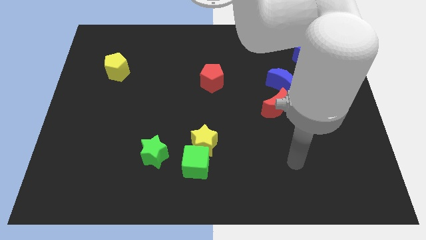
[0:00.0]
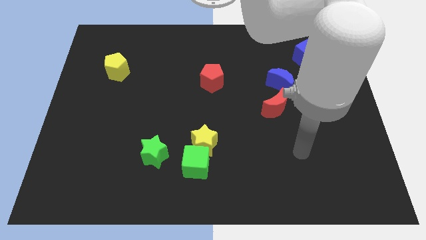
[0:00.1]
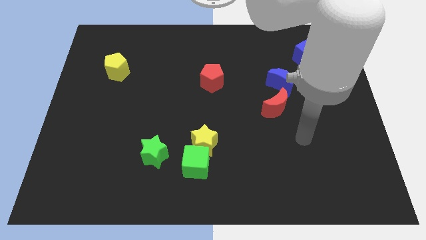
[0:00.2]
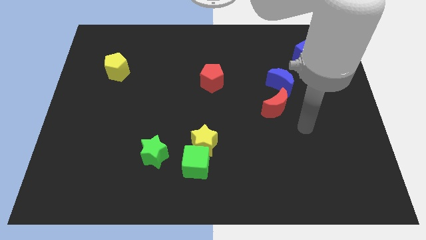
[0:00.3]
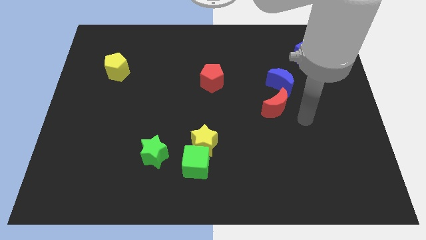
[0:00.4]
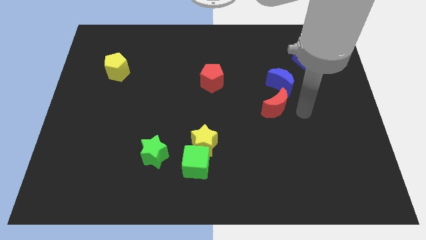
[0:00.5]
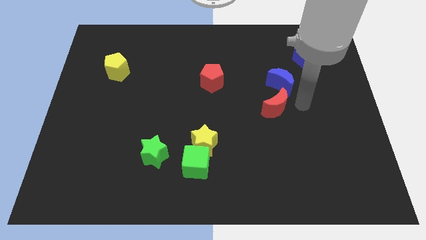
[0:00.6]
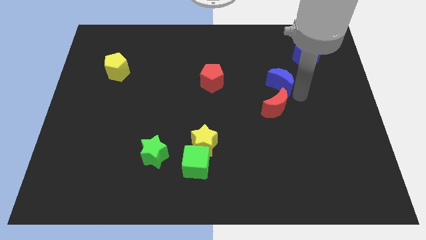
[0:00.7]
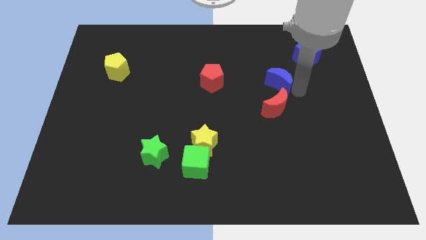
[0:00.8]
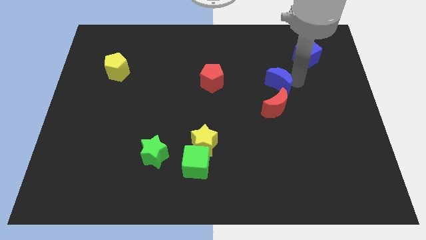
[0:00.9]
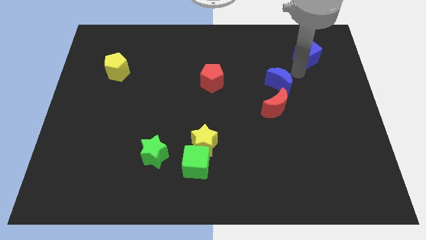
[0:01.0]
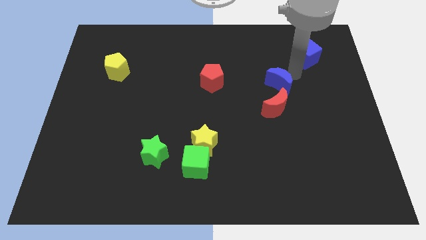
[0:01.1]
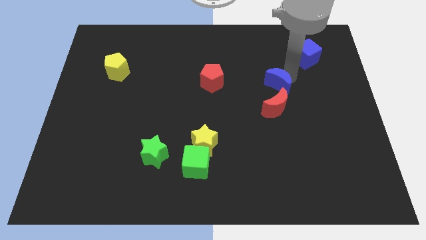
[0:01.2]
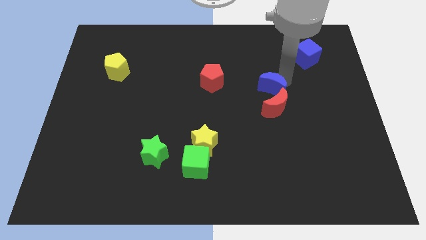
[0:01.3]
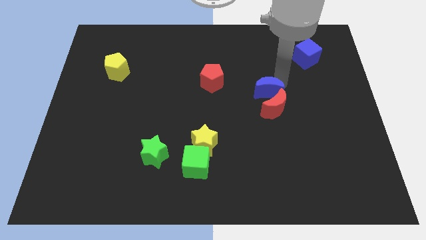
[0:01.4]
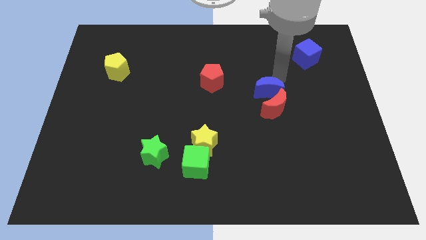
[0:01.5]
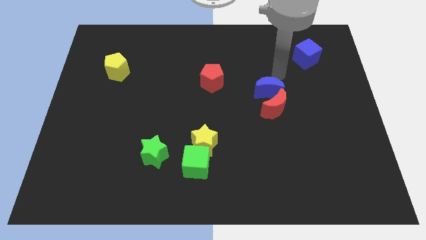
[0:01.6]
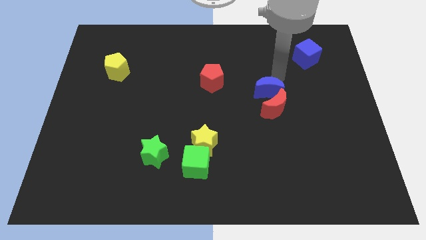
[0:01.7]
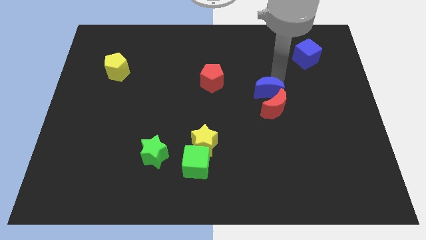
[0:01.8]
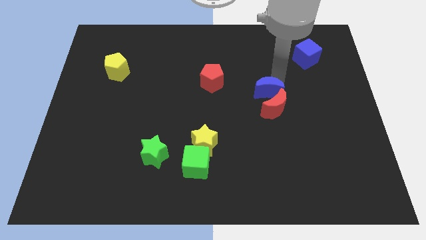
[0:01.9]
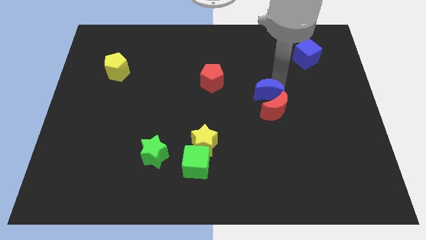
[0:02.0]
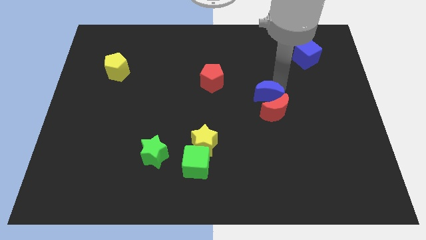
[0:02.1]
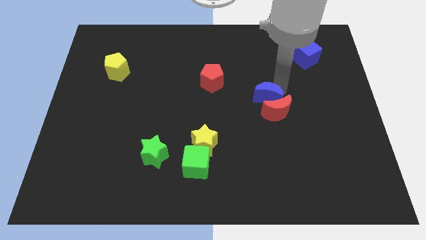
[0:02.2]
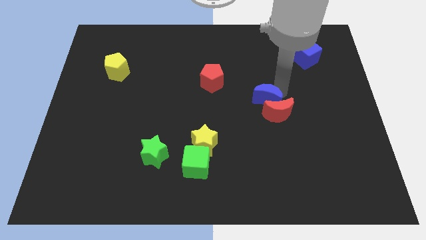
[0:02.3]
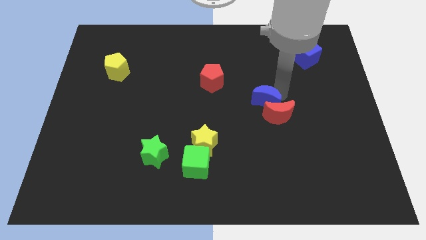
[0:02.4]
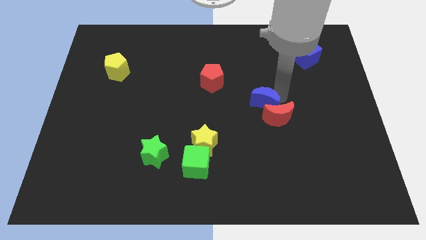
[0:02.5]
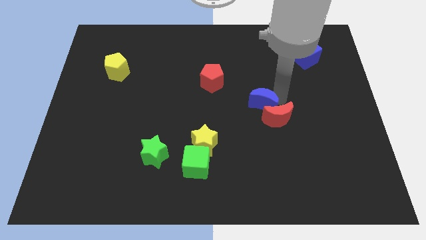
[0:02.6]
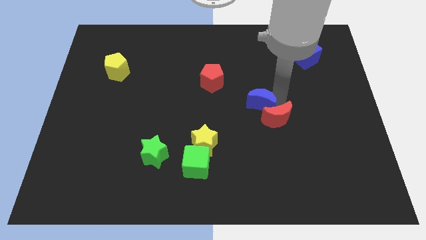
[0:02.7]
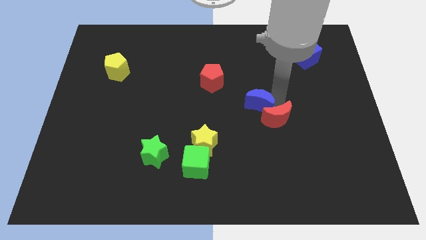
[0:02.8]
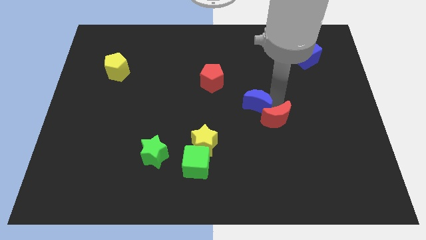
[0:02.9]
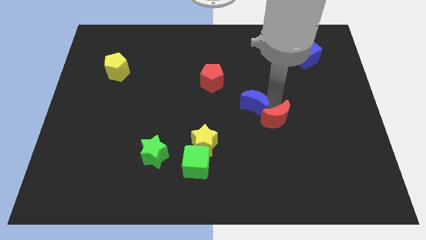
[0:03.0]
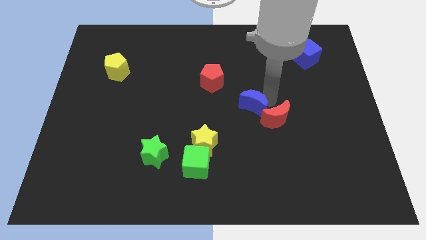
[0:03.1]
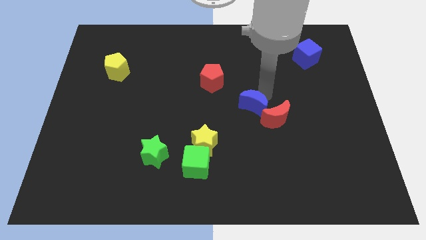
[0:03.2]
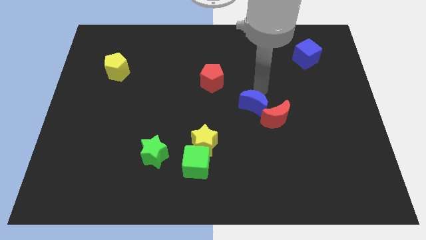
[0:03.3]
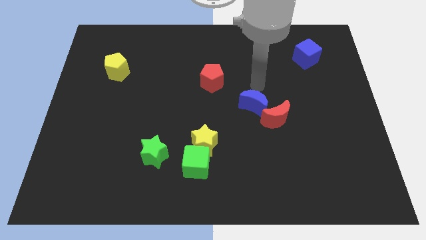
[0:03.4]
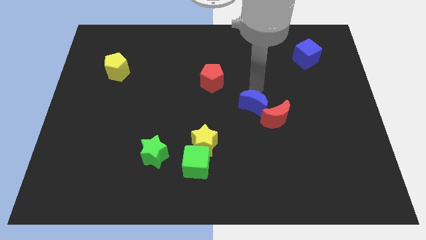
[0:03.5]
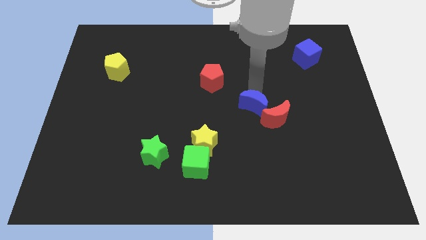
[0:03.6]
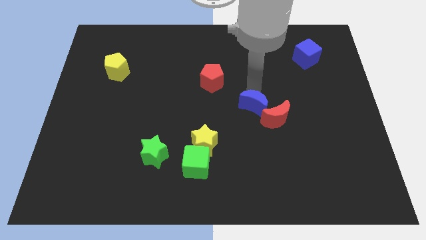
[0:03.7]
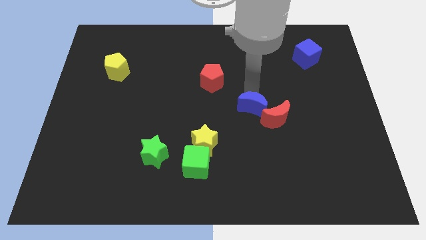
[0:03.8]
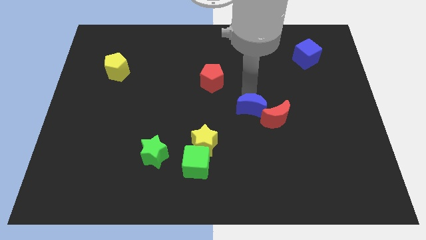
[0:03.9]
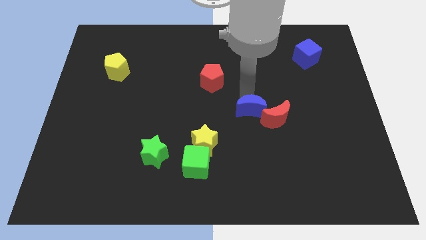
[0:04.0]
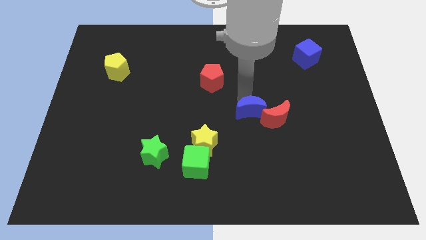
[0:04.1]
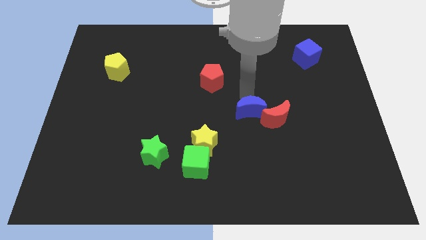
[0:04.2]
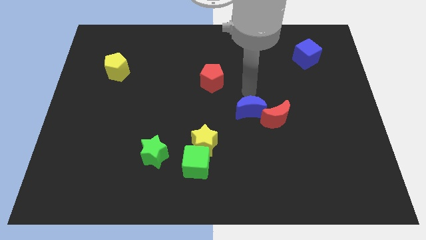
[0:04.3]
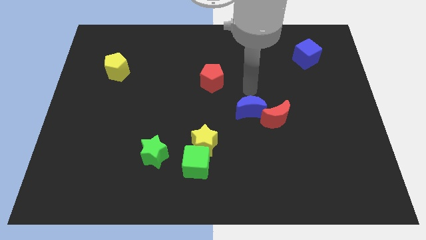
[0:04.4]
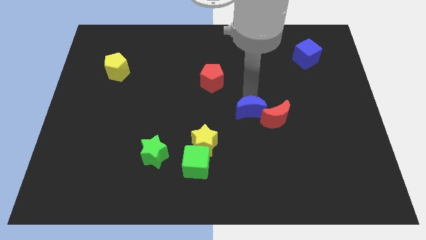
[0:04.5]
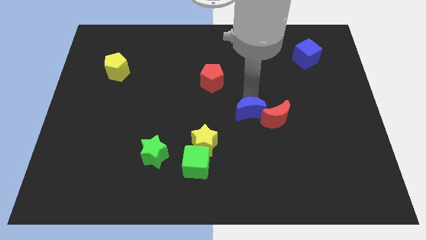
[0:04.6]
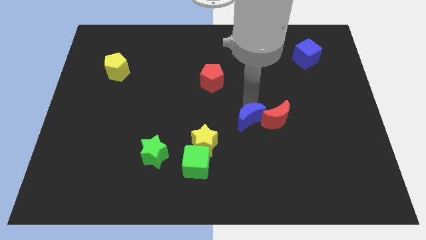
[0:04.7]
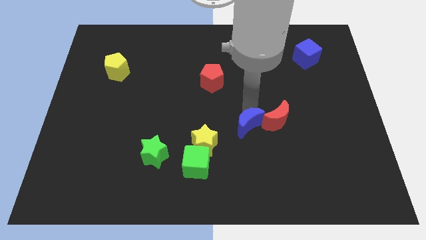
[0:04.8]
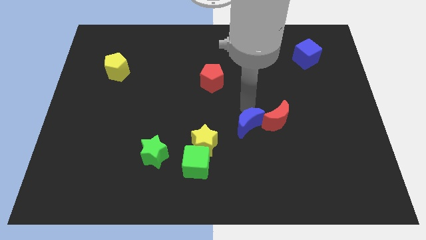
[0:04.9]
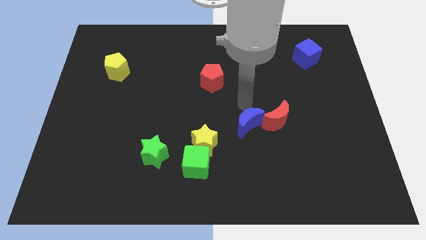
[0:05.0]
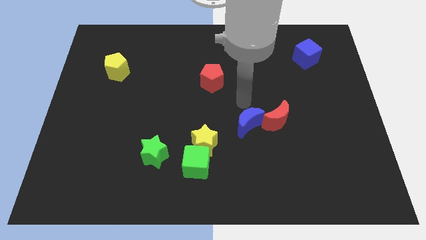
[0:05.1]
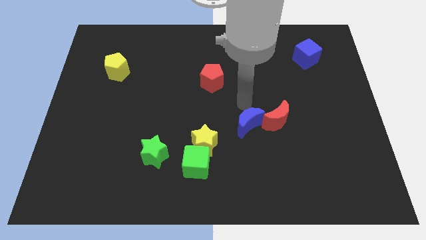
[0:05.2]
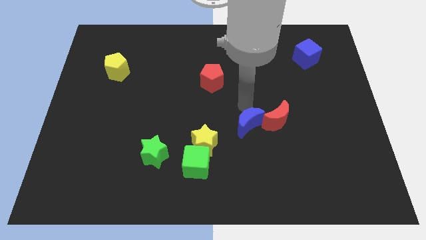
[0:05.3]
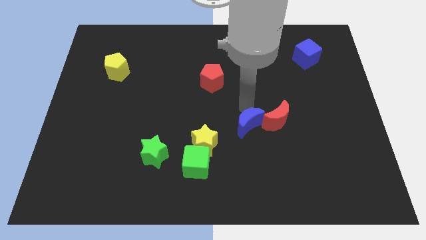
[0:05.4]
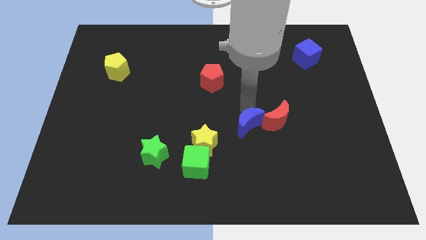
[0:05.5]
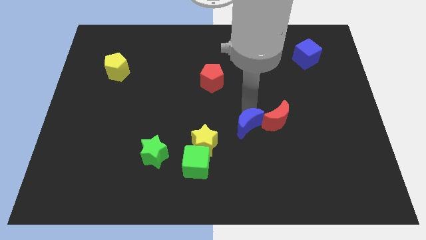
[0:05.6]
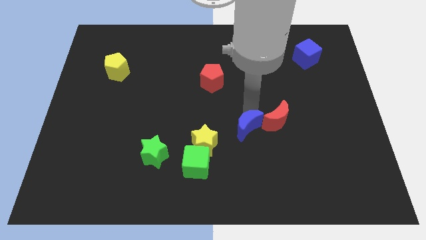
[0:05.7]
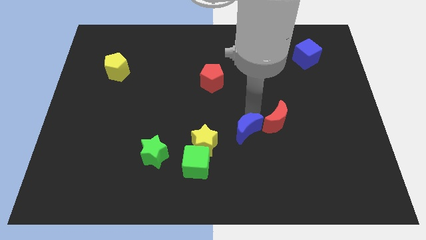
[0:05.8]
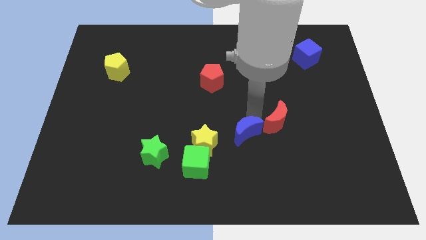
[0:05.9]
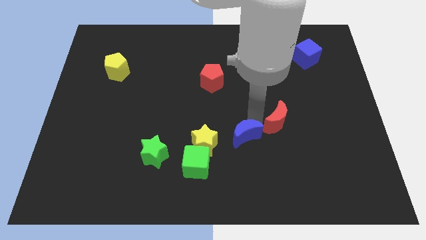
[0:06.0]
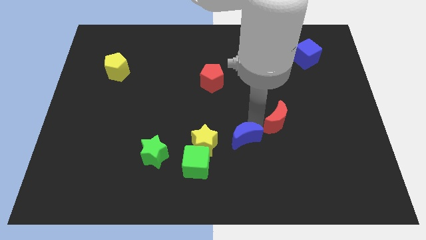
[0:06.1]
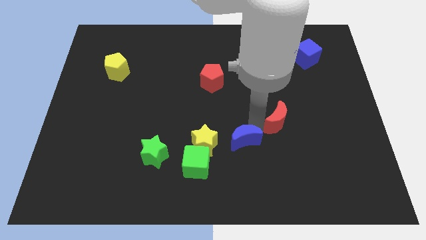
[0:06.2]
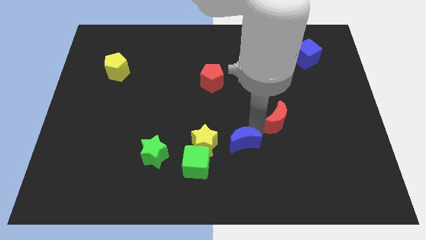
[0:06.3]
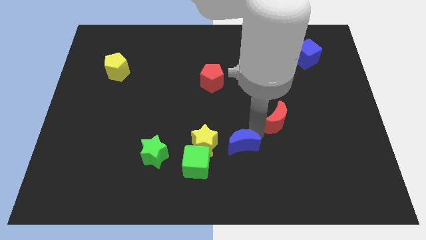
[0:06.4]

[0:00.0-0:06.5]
put the blue moon to the right of the green cube

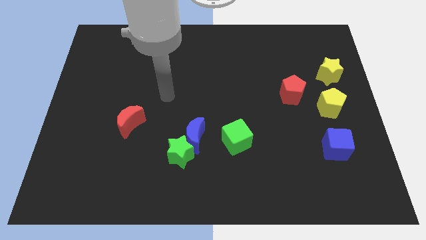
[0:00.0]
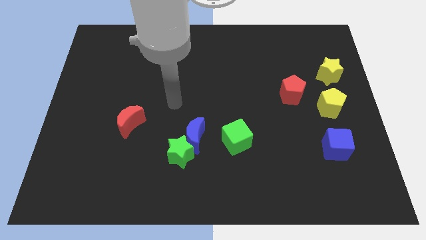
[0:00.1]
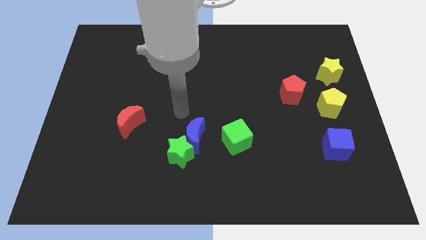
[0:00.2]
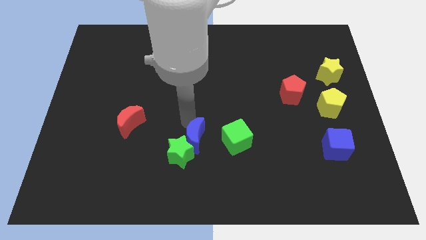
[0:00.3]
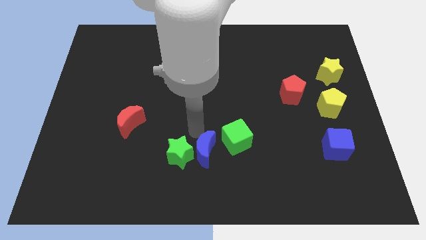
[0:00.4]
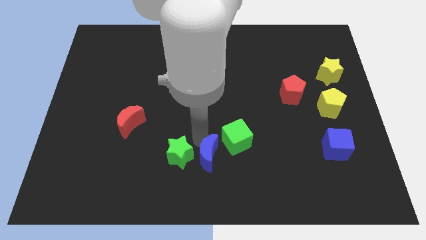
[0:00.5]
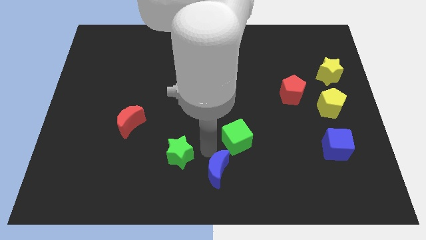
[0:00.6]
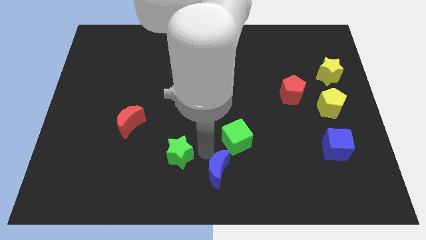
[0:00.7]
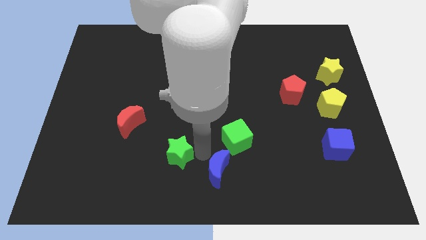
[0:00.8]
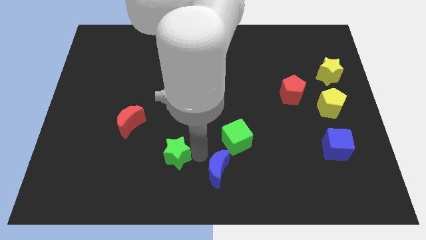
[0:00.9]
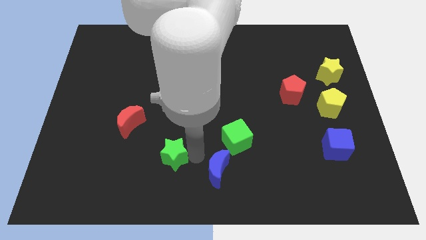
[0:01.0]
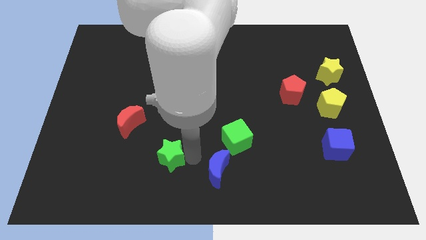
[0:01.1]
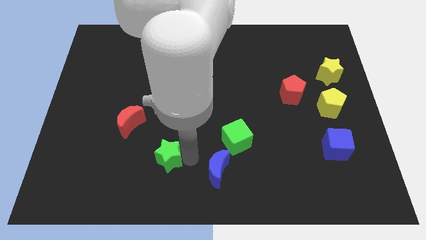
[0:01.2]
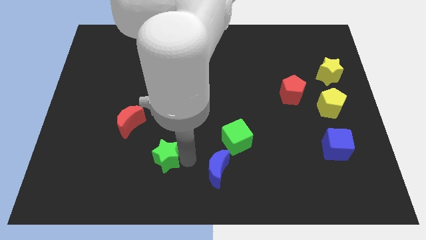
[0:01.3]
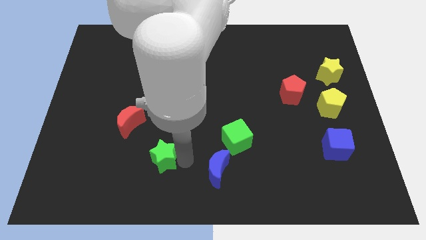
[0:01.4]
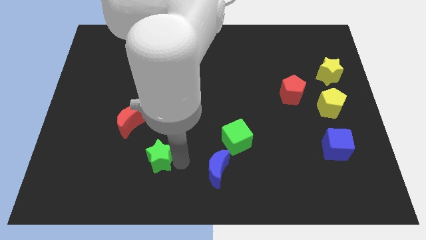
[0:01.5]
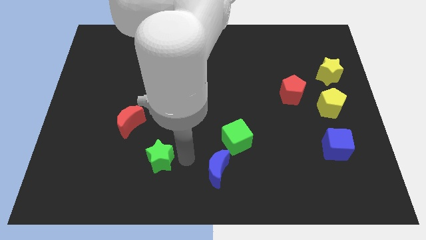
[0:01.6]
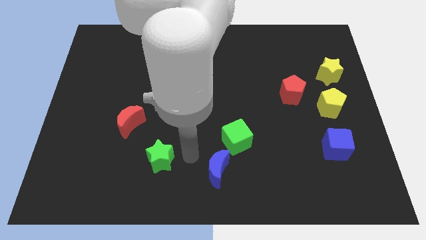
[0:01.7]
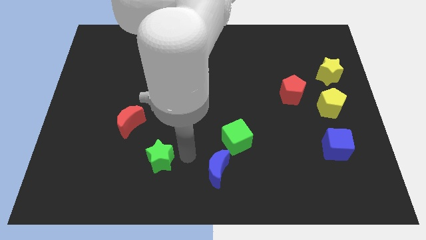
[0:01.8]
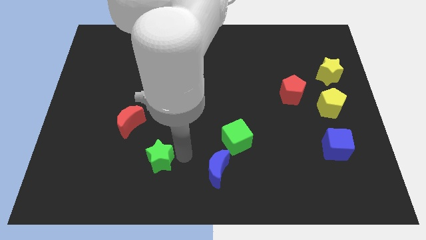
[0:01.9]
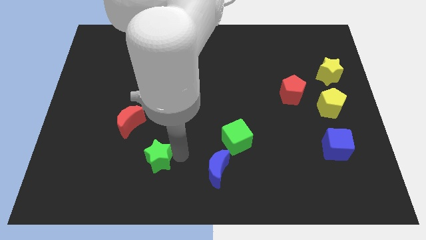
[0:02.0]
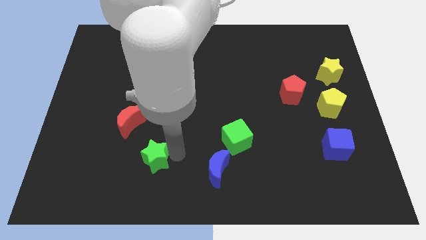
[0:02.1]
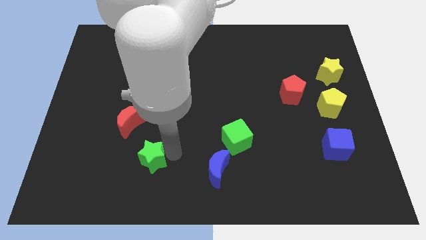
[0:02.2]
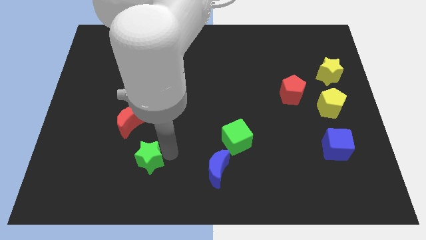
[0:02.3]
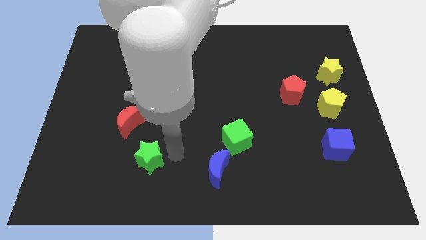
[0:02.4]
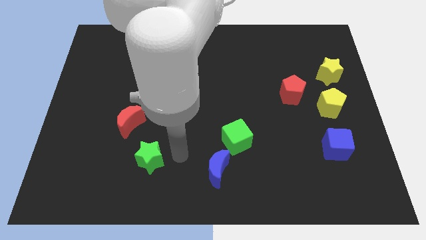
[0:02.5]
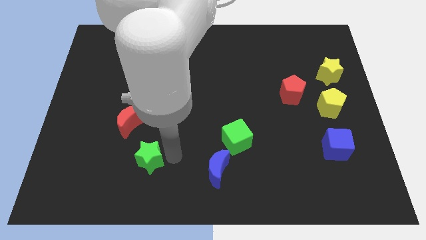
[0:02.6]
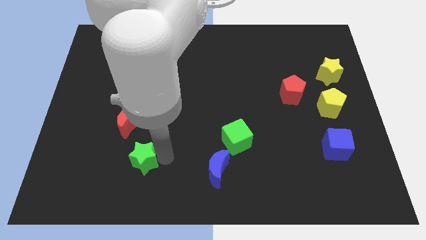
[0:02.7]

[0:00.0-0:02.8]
put the green star to the bottom of the red moon
